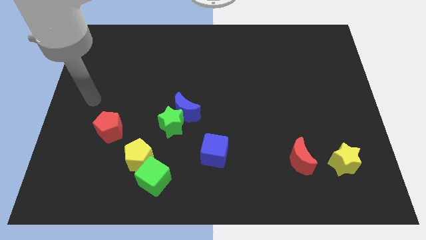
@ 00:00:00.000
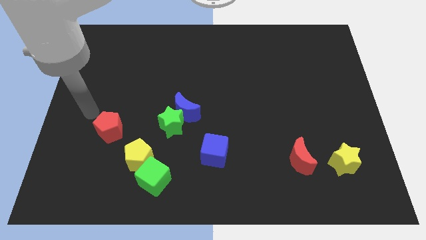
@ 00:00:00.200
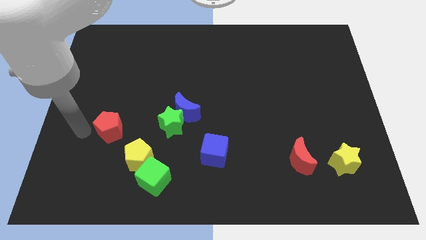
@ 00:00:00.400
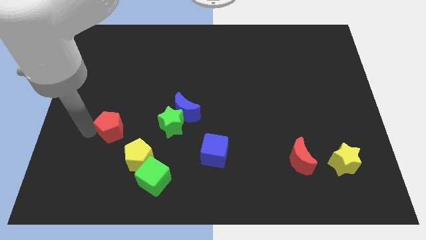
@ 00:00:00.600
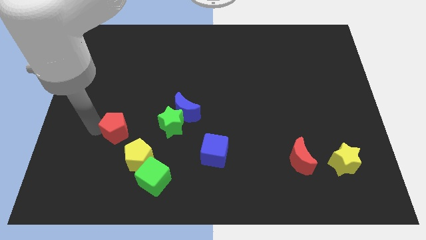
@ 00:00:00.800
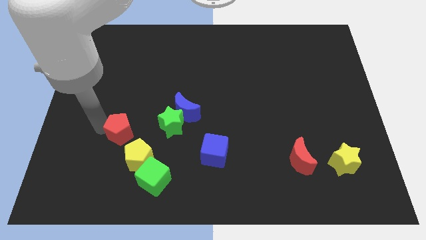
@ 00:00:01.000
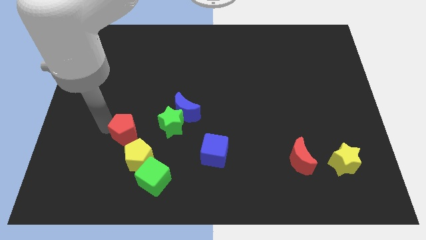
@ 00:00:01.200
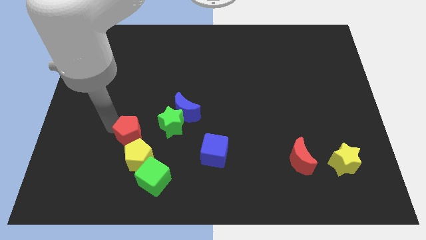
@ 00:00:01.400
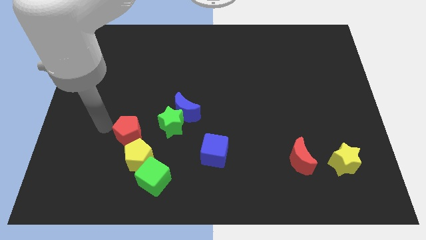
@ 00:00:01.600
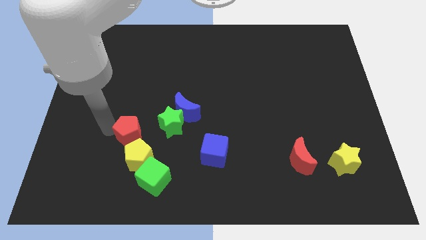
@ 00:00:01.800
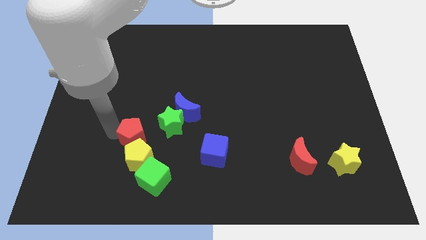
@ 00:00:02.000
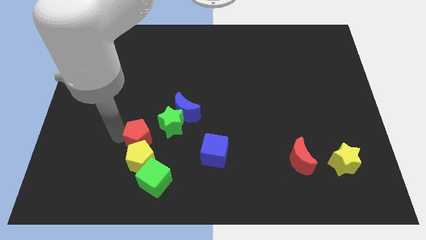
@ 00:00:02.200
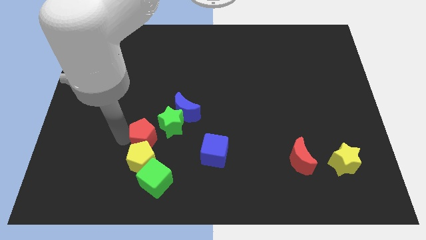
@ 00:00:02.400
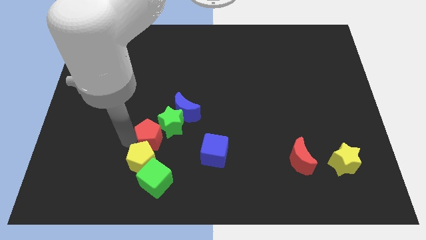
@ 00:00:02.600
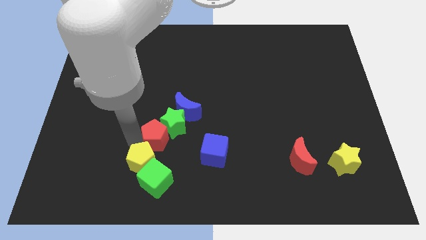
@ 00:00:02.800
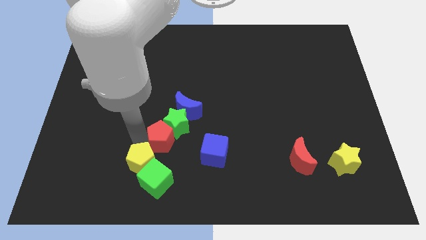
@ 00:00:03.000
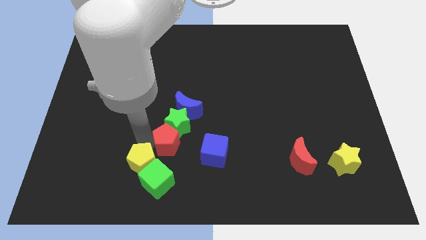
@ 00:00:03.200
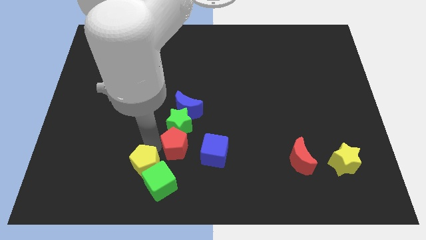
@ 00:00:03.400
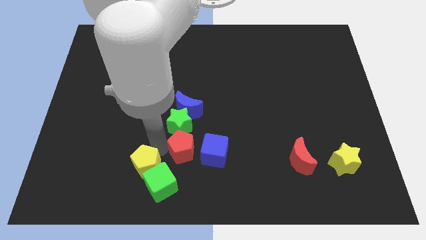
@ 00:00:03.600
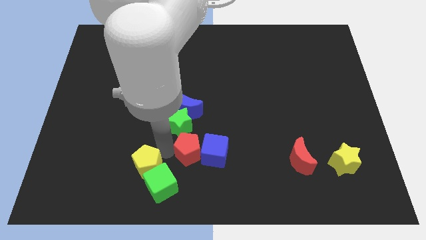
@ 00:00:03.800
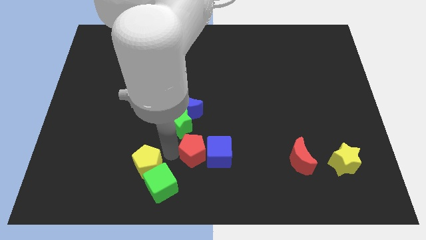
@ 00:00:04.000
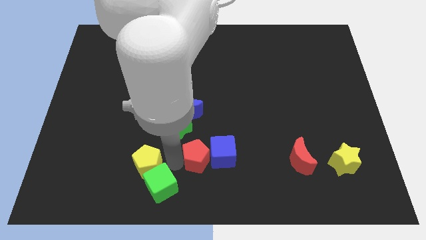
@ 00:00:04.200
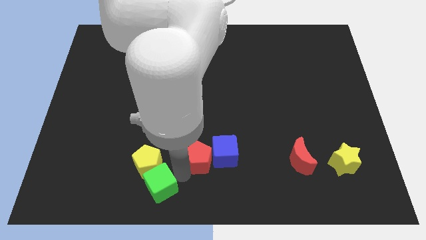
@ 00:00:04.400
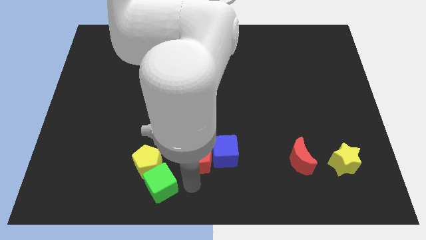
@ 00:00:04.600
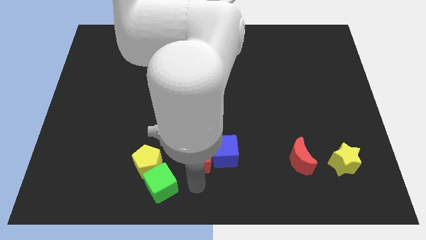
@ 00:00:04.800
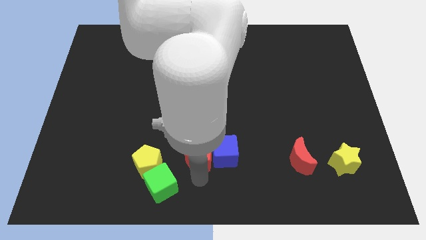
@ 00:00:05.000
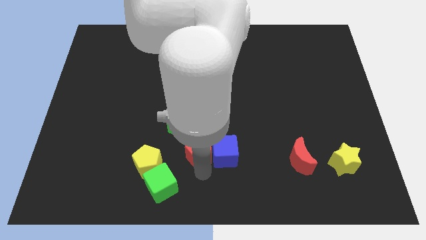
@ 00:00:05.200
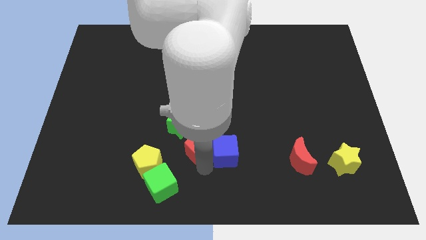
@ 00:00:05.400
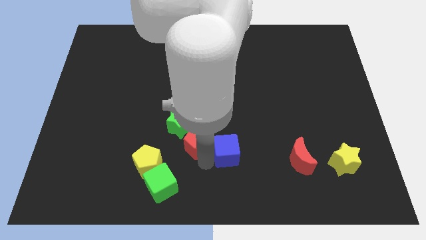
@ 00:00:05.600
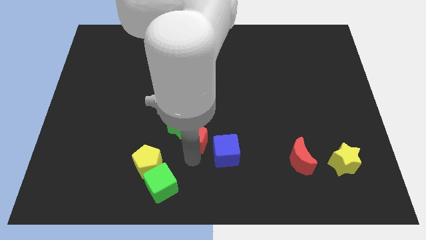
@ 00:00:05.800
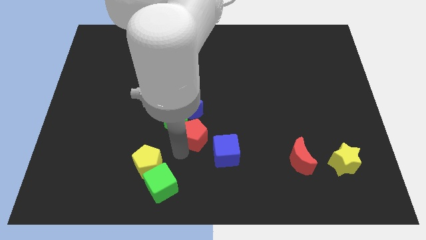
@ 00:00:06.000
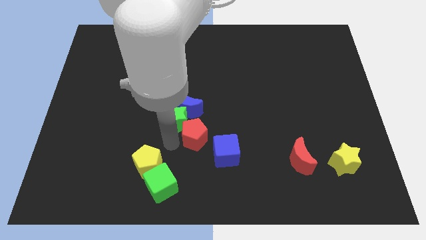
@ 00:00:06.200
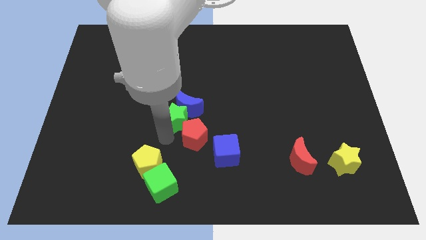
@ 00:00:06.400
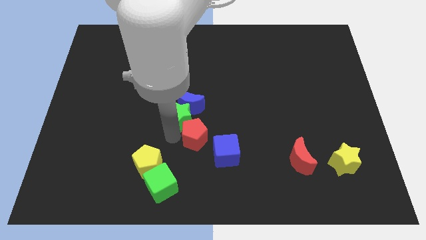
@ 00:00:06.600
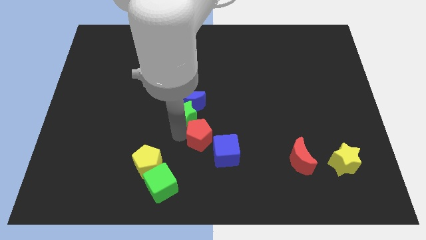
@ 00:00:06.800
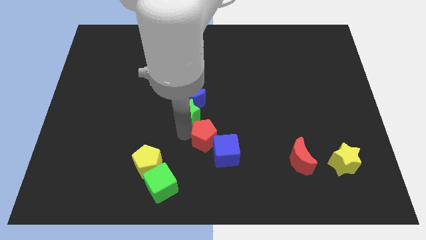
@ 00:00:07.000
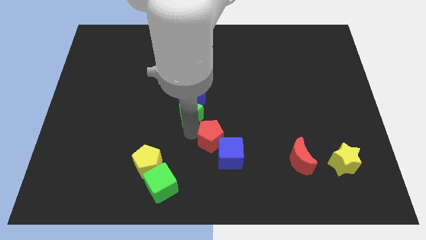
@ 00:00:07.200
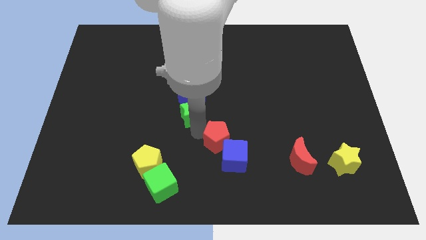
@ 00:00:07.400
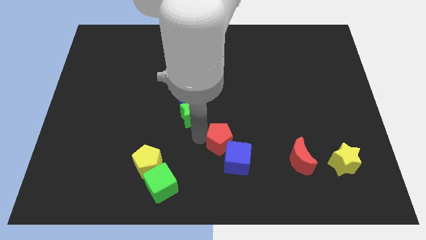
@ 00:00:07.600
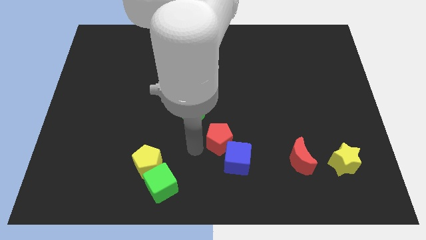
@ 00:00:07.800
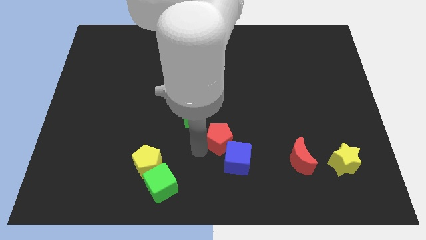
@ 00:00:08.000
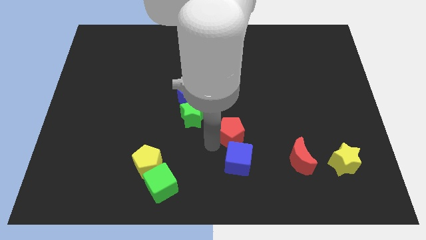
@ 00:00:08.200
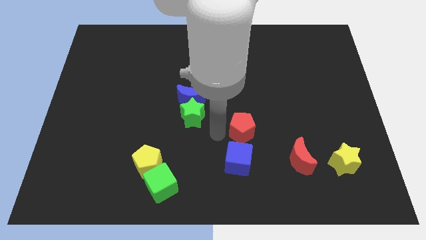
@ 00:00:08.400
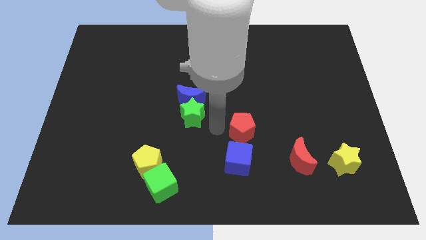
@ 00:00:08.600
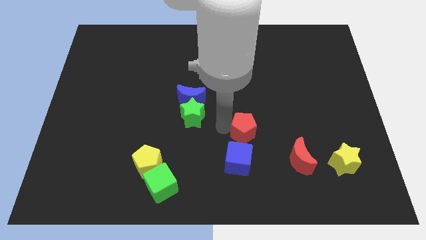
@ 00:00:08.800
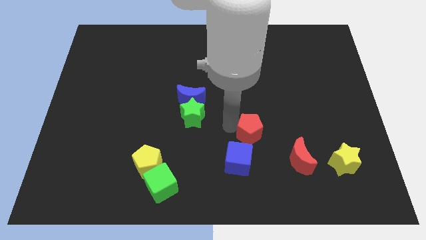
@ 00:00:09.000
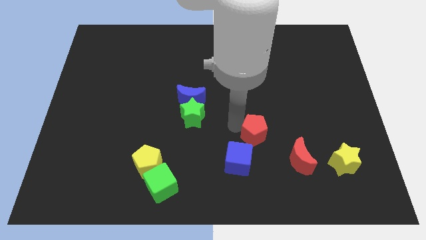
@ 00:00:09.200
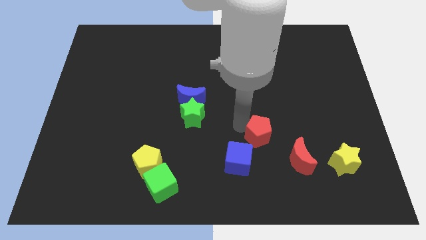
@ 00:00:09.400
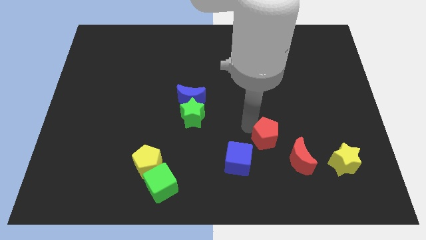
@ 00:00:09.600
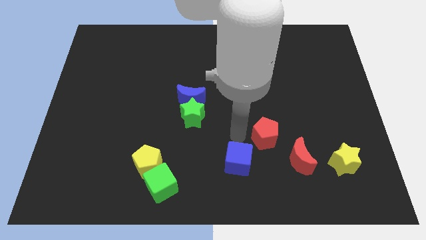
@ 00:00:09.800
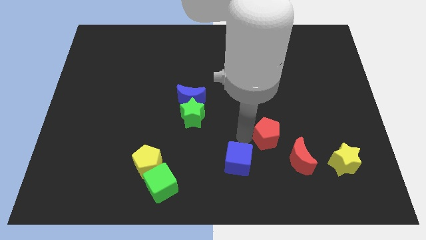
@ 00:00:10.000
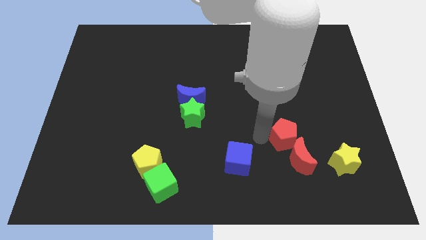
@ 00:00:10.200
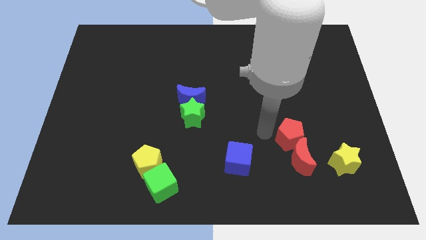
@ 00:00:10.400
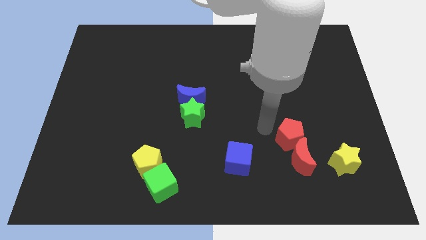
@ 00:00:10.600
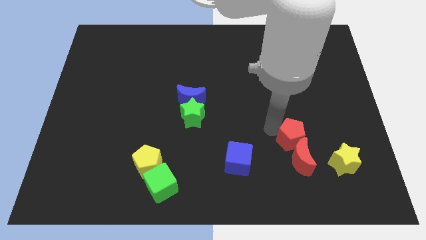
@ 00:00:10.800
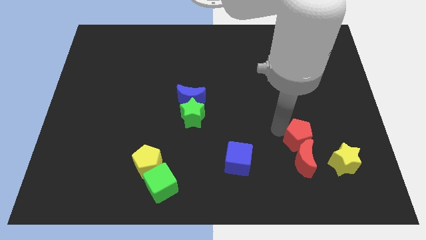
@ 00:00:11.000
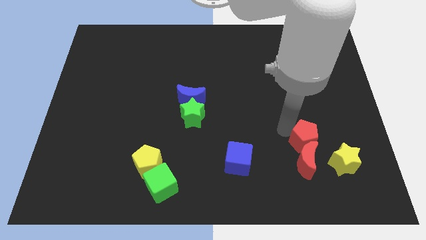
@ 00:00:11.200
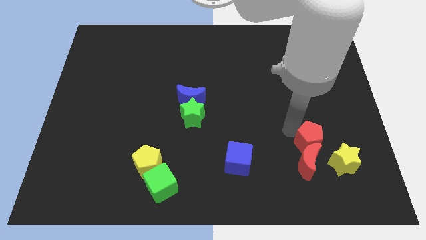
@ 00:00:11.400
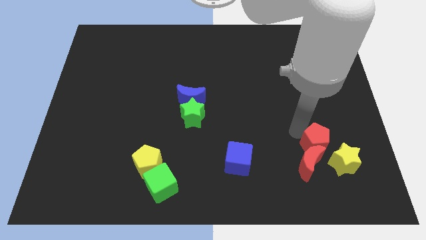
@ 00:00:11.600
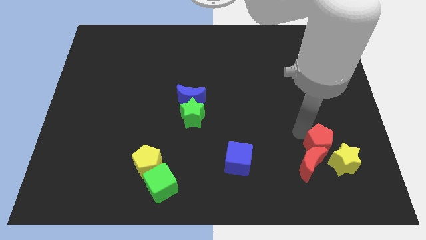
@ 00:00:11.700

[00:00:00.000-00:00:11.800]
put the red pentagon next to the yellow star

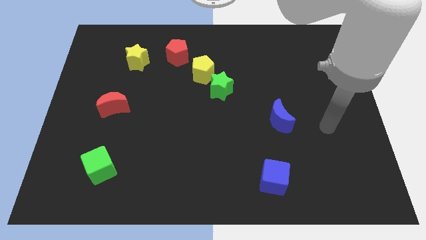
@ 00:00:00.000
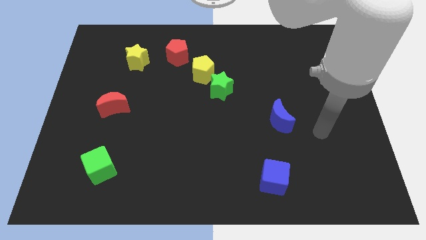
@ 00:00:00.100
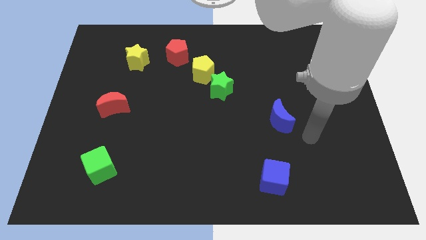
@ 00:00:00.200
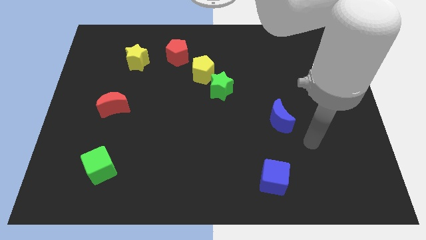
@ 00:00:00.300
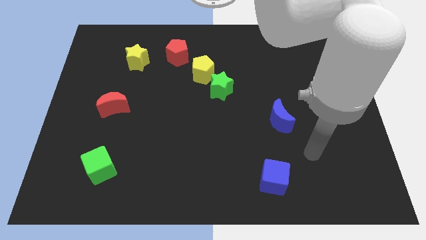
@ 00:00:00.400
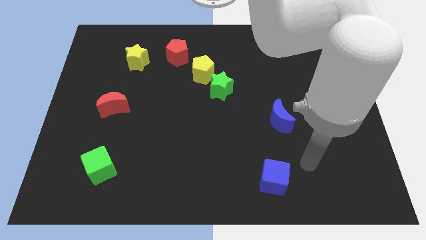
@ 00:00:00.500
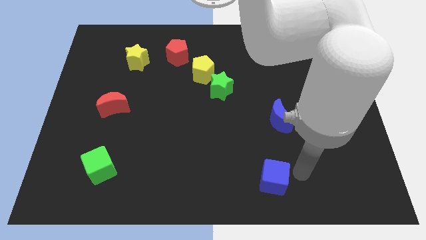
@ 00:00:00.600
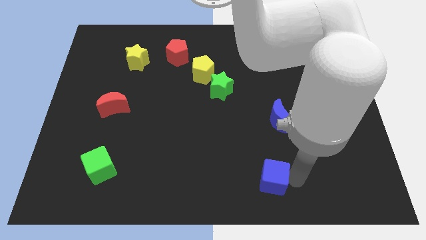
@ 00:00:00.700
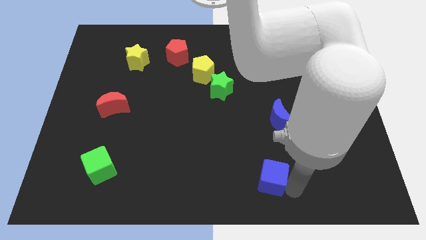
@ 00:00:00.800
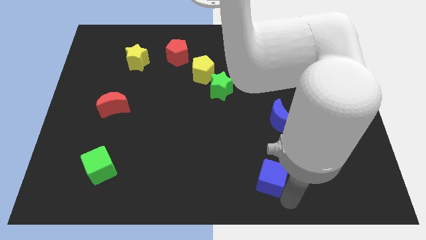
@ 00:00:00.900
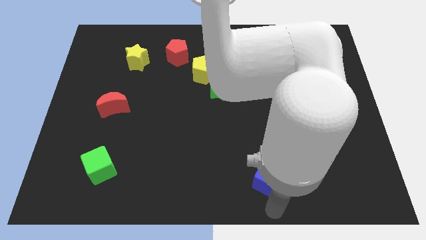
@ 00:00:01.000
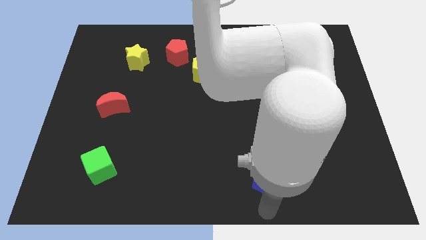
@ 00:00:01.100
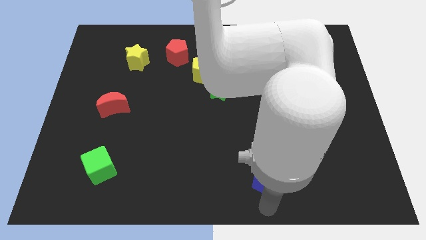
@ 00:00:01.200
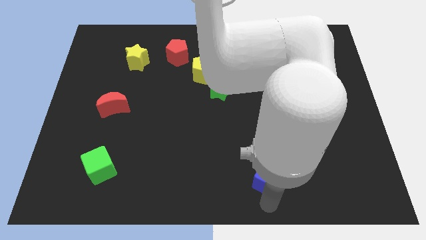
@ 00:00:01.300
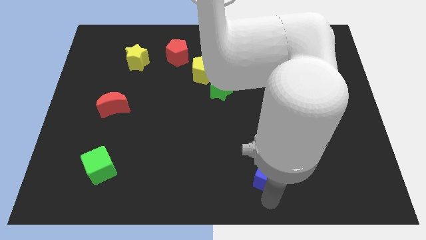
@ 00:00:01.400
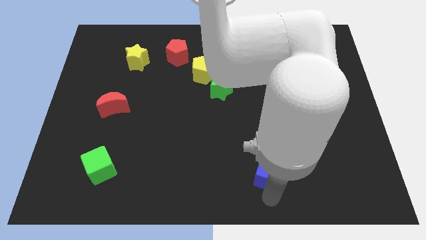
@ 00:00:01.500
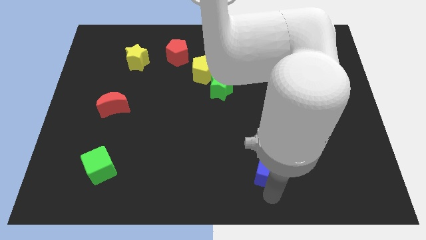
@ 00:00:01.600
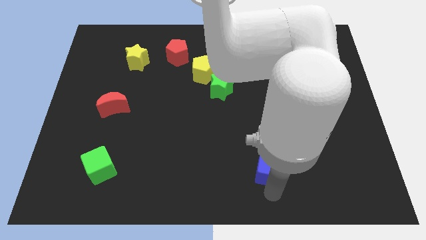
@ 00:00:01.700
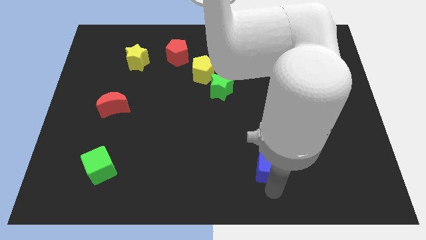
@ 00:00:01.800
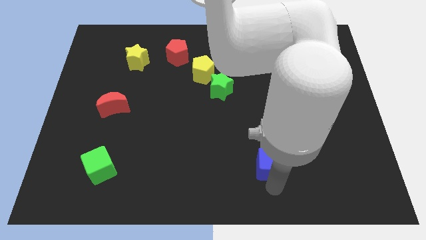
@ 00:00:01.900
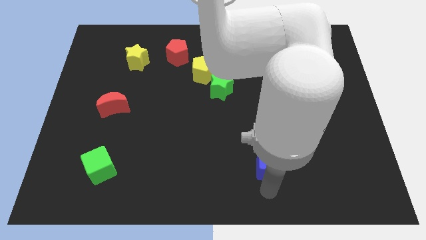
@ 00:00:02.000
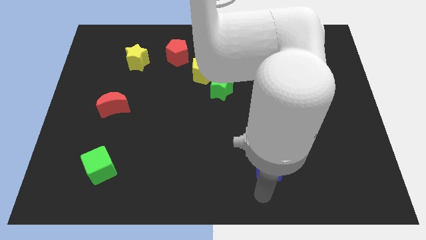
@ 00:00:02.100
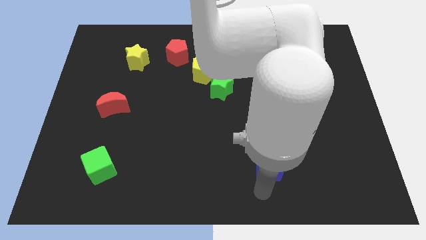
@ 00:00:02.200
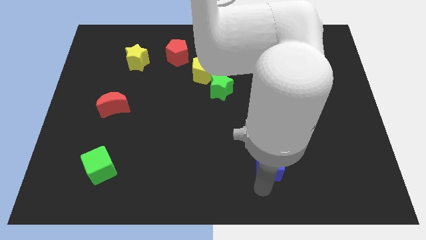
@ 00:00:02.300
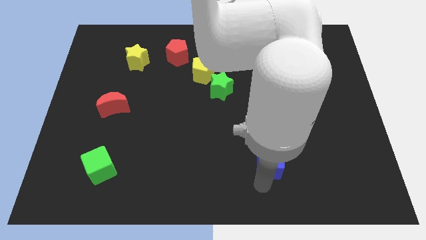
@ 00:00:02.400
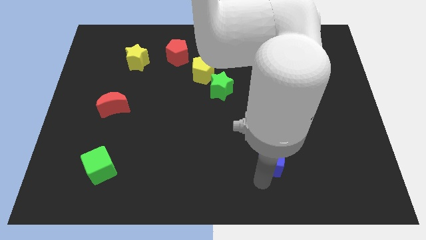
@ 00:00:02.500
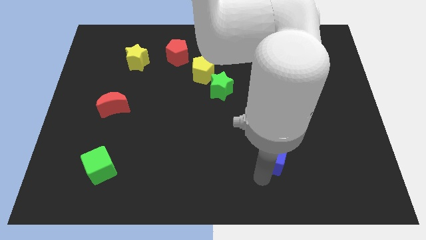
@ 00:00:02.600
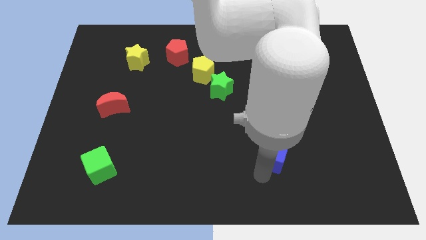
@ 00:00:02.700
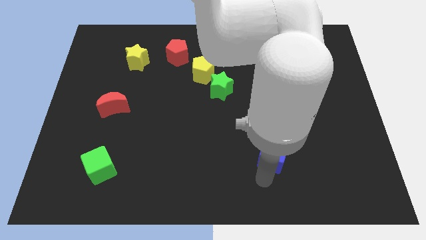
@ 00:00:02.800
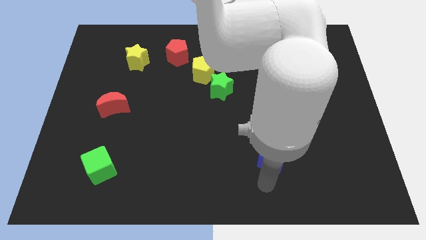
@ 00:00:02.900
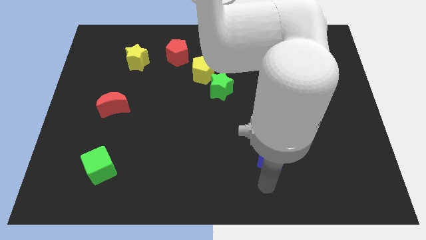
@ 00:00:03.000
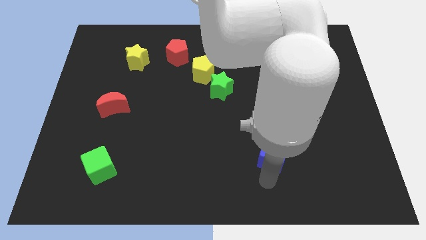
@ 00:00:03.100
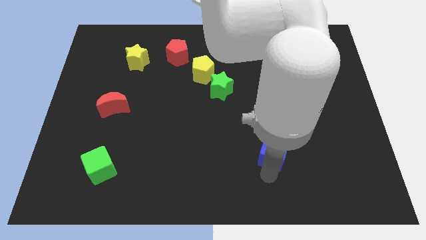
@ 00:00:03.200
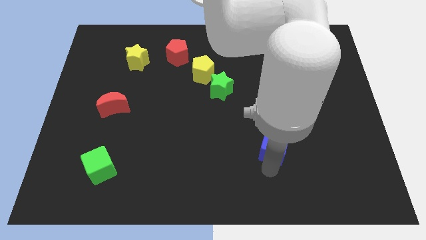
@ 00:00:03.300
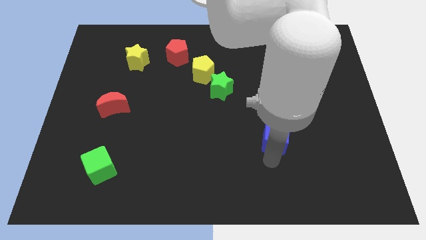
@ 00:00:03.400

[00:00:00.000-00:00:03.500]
move the blue cube towards the blue moon
